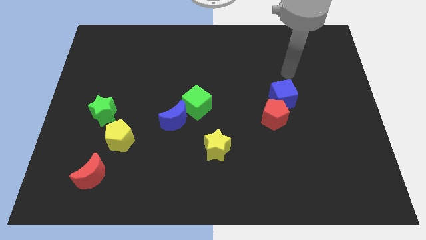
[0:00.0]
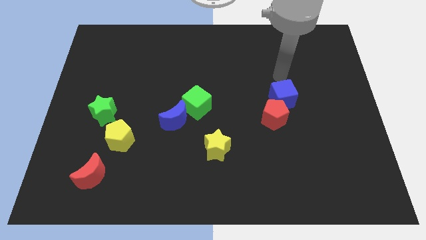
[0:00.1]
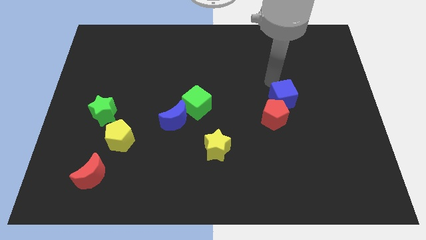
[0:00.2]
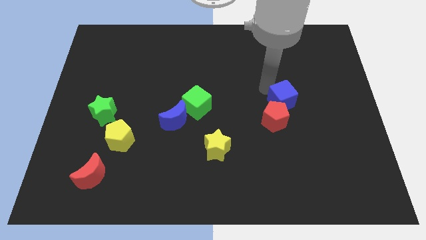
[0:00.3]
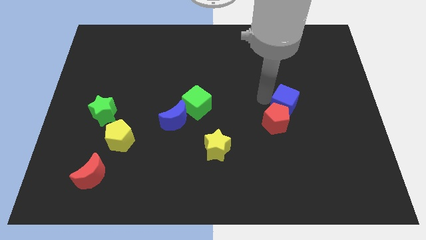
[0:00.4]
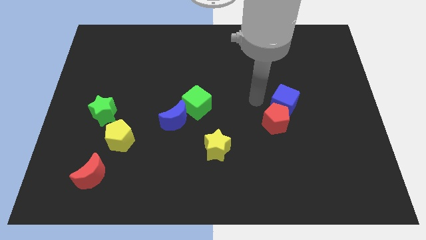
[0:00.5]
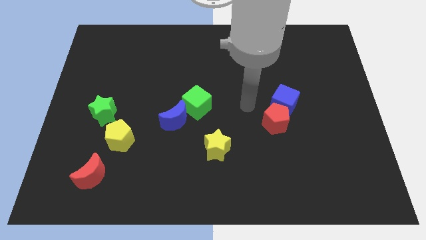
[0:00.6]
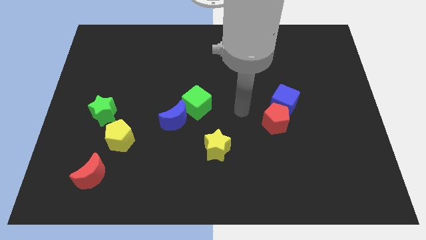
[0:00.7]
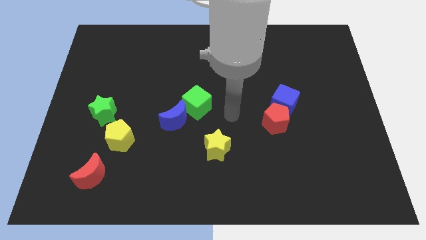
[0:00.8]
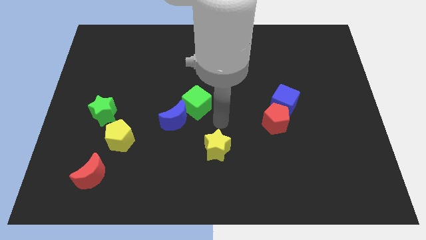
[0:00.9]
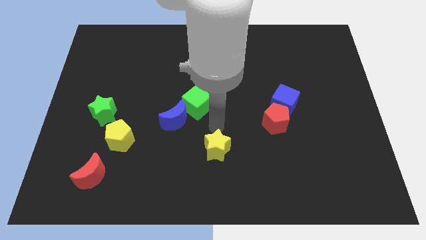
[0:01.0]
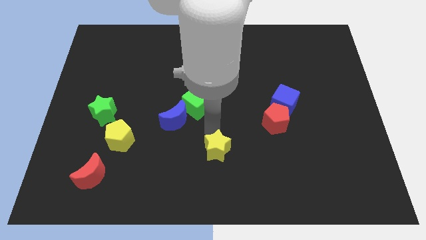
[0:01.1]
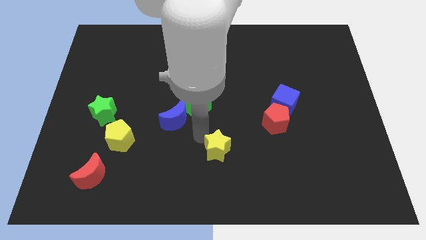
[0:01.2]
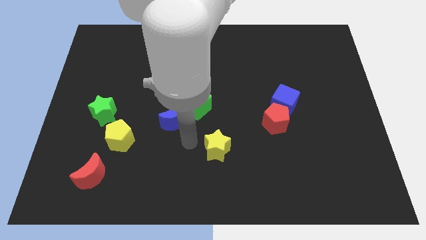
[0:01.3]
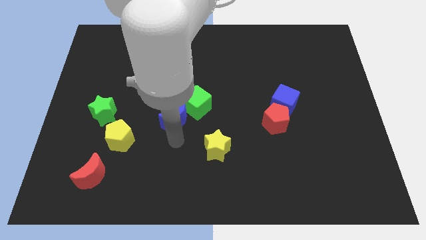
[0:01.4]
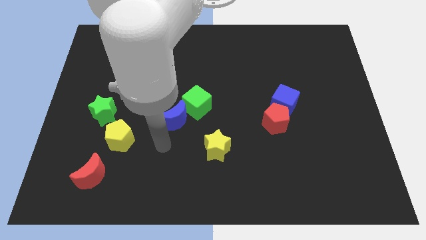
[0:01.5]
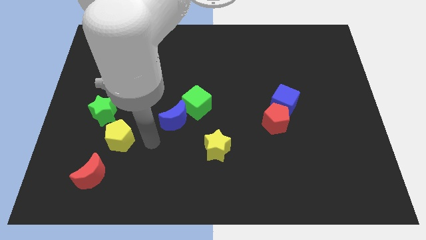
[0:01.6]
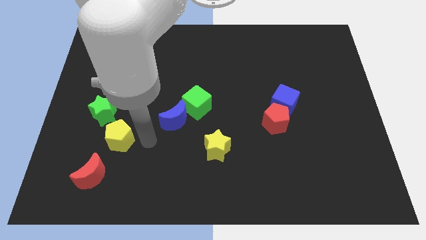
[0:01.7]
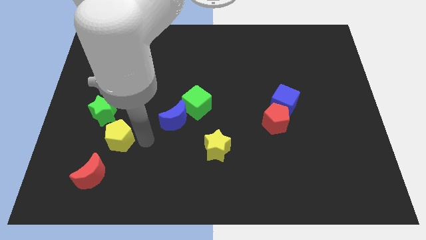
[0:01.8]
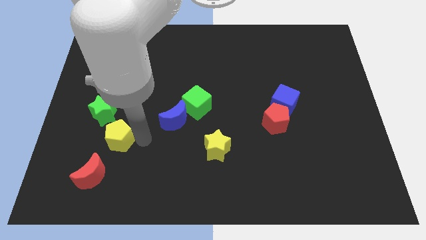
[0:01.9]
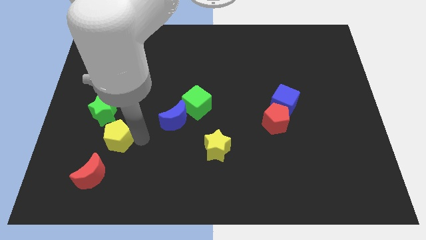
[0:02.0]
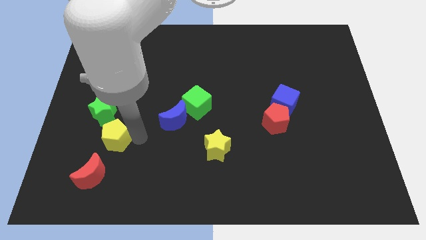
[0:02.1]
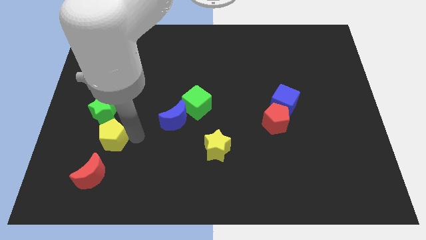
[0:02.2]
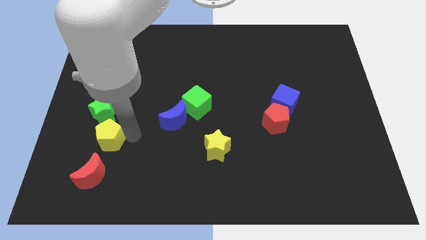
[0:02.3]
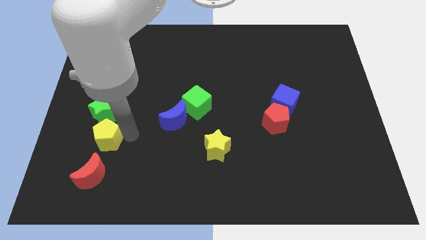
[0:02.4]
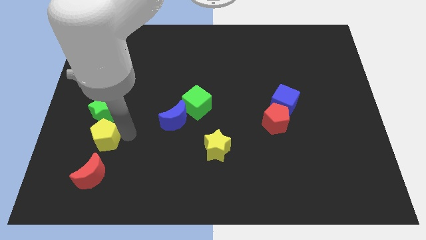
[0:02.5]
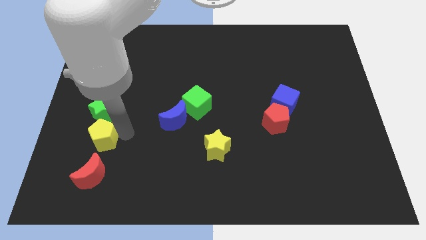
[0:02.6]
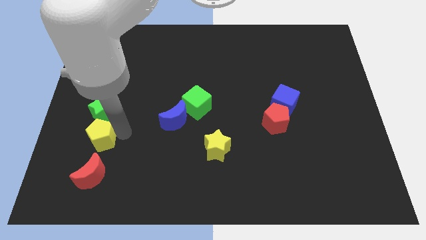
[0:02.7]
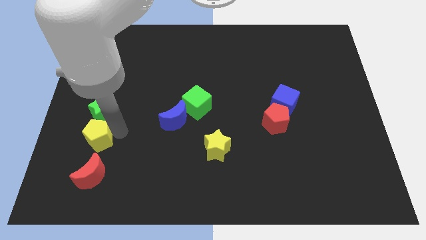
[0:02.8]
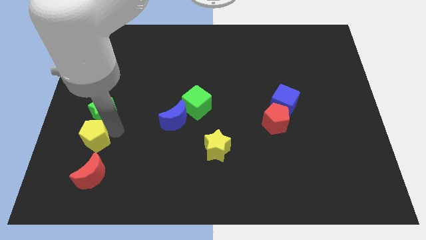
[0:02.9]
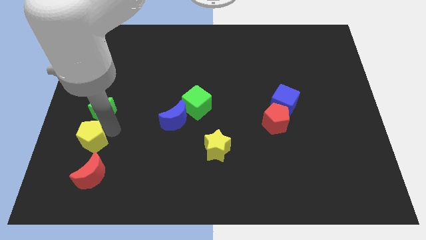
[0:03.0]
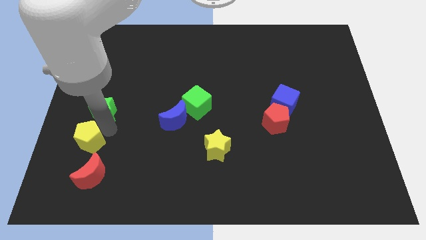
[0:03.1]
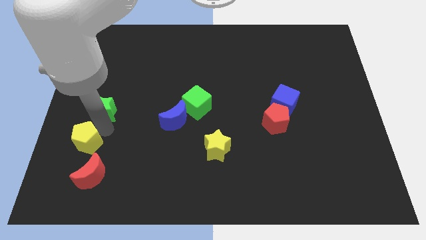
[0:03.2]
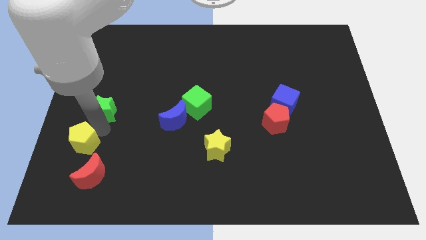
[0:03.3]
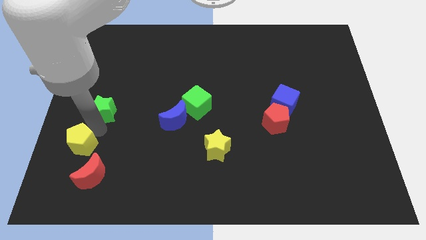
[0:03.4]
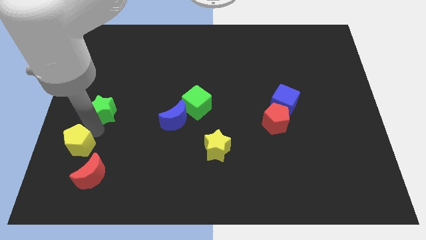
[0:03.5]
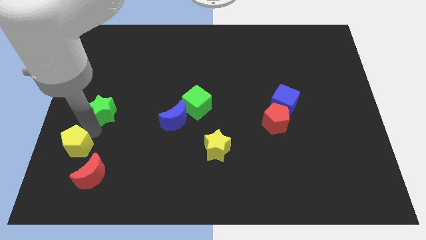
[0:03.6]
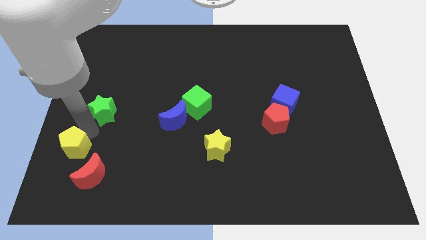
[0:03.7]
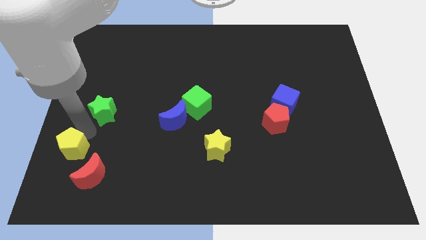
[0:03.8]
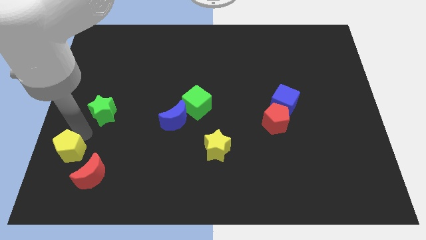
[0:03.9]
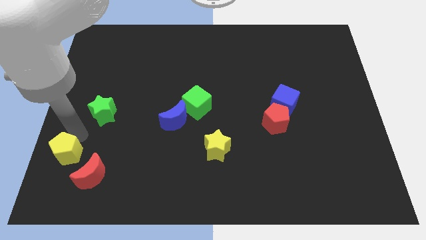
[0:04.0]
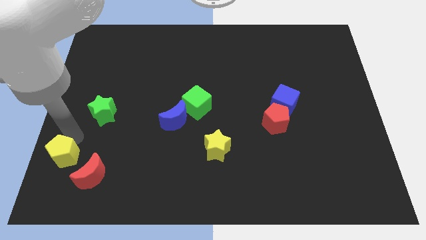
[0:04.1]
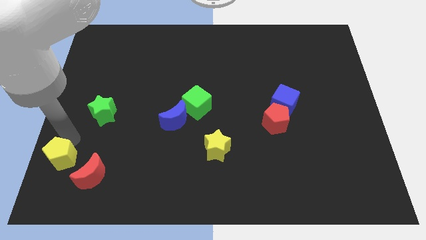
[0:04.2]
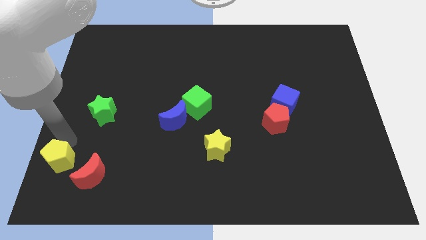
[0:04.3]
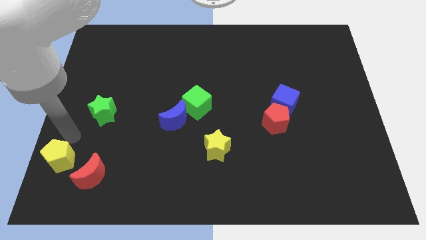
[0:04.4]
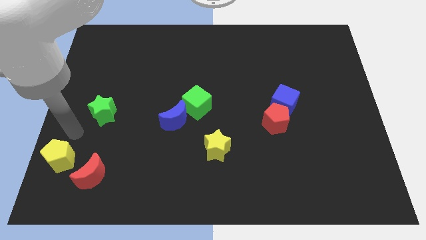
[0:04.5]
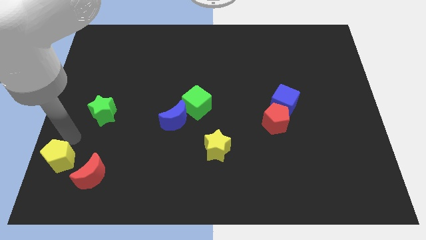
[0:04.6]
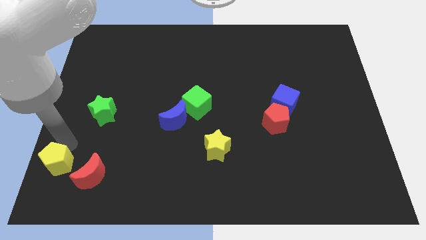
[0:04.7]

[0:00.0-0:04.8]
slide the yellow pentagon to the bottom left of the board

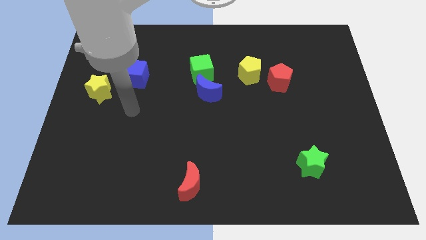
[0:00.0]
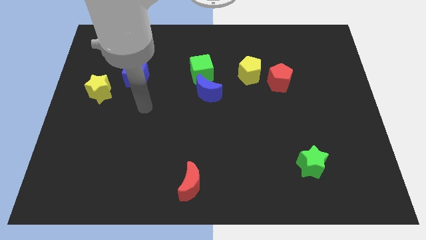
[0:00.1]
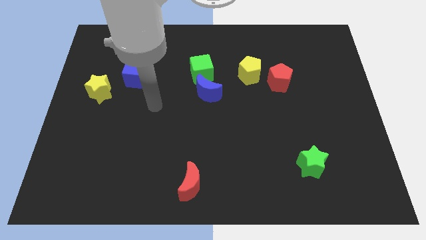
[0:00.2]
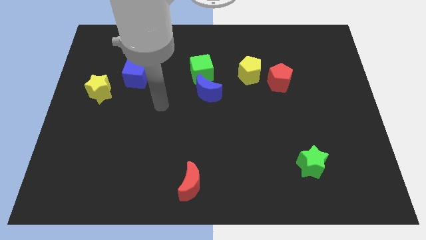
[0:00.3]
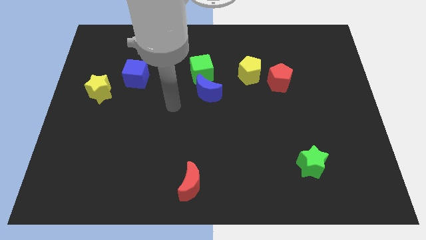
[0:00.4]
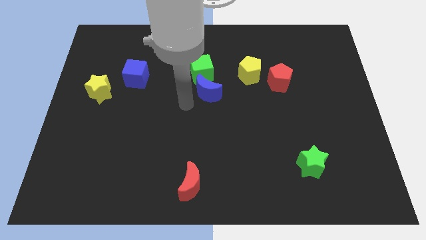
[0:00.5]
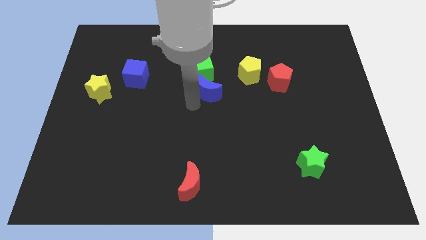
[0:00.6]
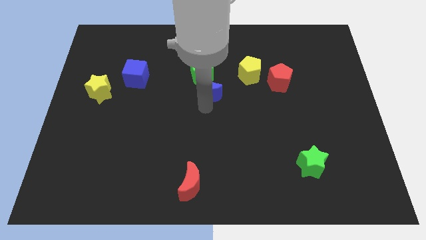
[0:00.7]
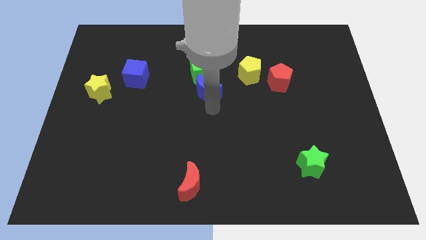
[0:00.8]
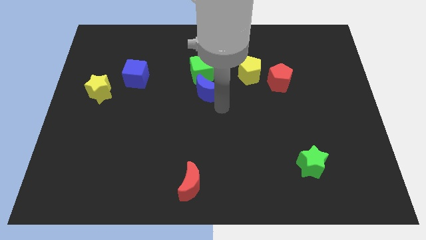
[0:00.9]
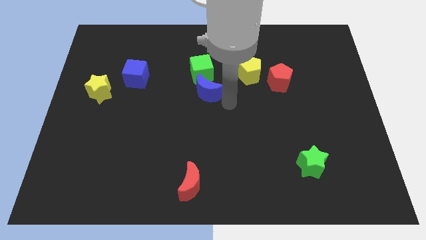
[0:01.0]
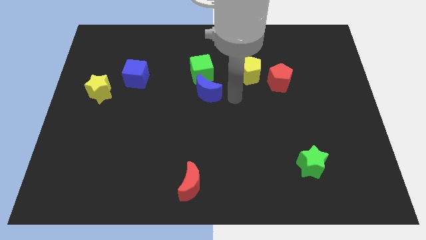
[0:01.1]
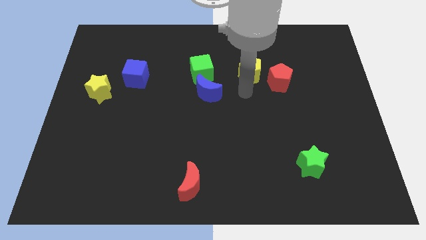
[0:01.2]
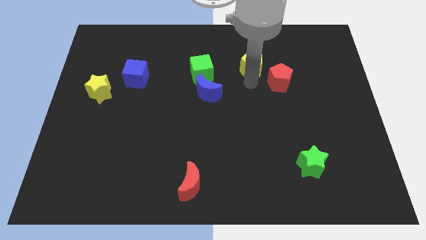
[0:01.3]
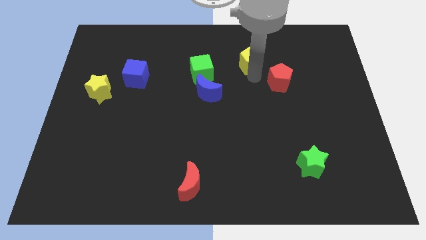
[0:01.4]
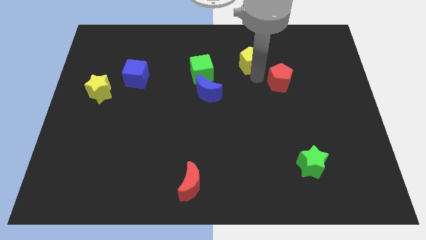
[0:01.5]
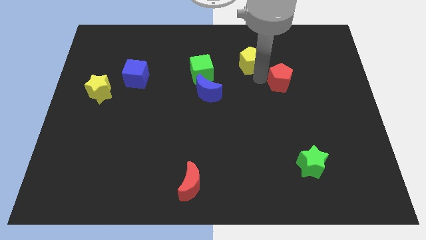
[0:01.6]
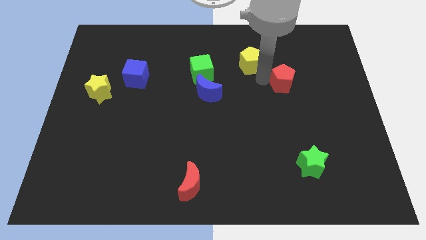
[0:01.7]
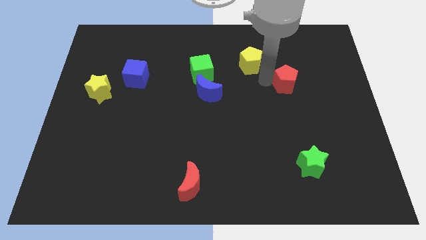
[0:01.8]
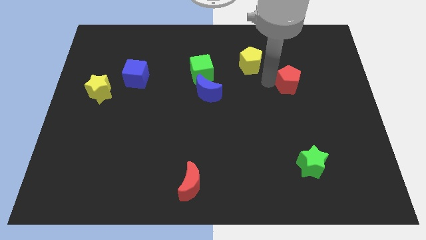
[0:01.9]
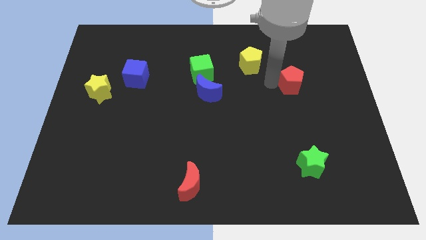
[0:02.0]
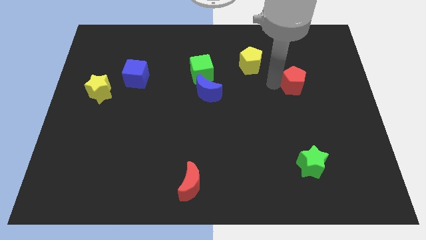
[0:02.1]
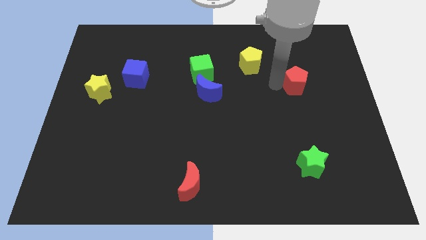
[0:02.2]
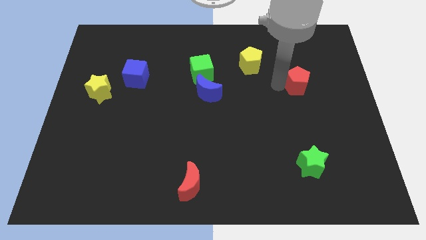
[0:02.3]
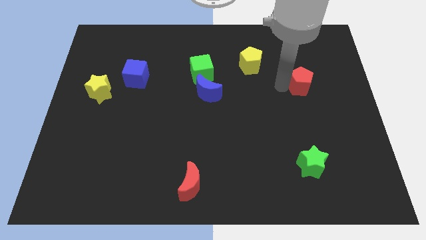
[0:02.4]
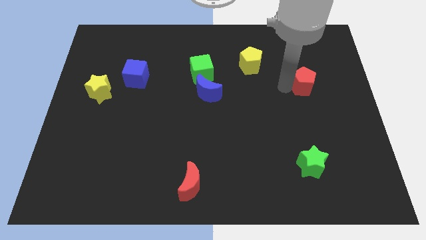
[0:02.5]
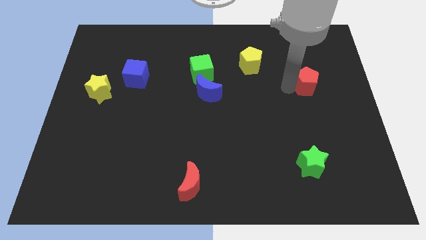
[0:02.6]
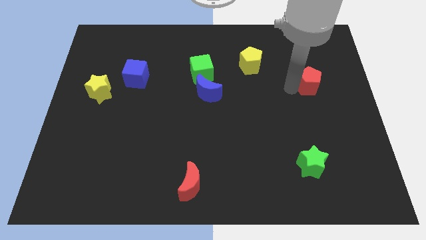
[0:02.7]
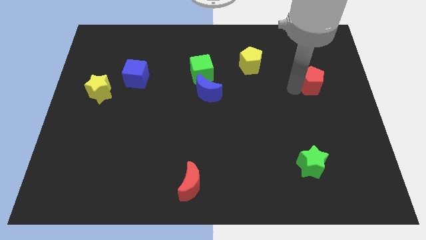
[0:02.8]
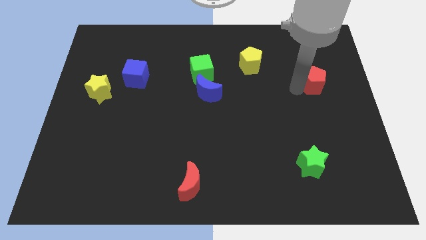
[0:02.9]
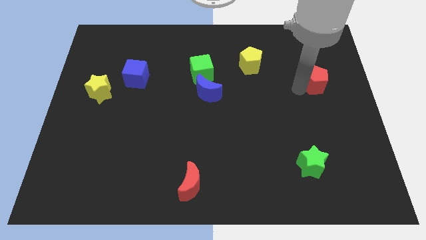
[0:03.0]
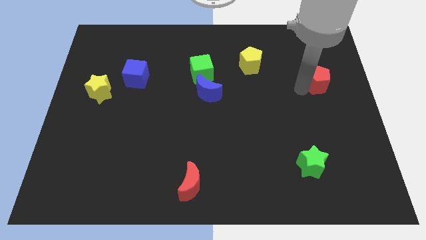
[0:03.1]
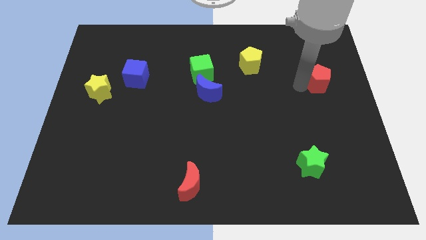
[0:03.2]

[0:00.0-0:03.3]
push the red pentagon to the right side
